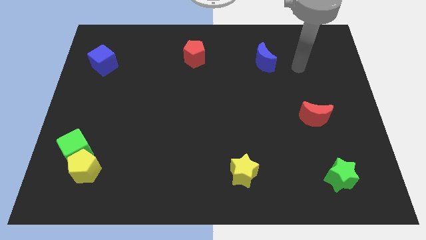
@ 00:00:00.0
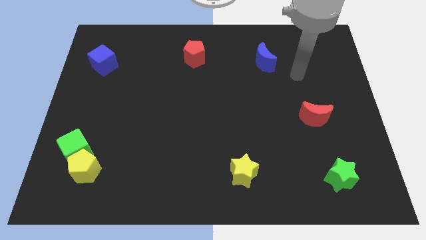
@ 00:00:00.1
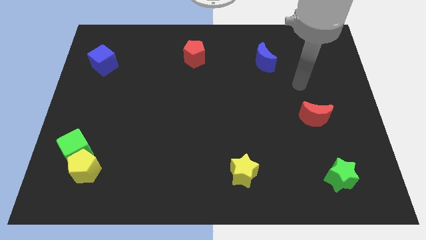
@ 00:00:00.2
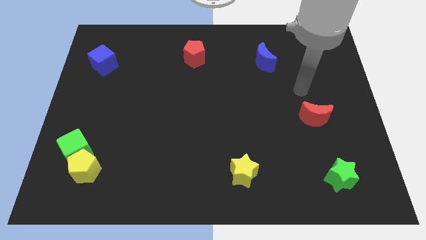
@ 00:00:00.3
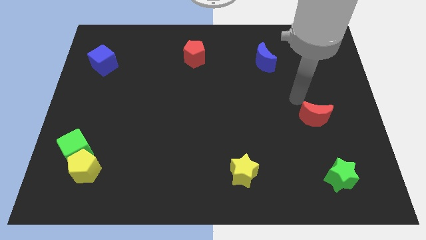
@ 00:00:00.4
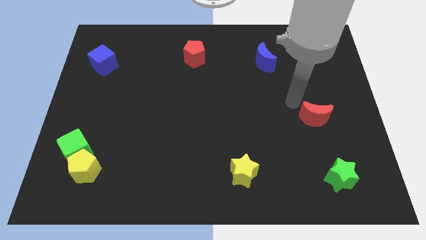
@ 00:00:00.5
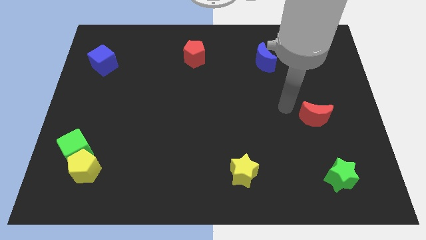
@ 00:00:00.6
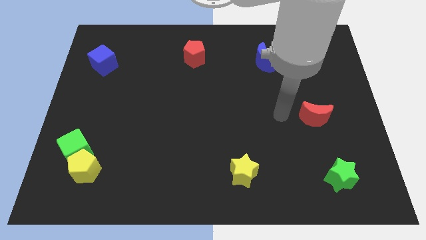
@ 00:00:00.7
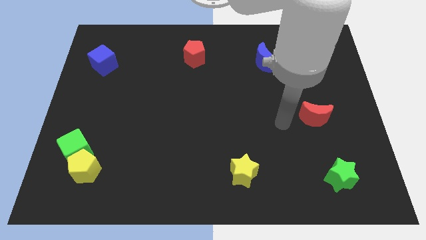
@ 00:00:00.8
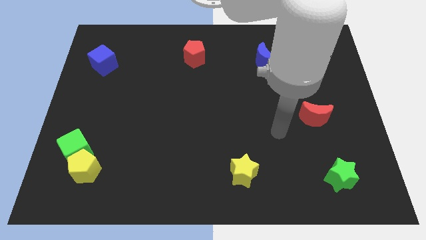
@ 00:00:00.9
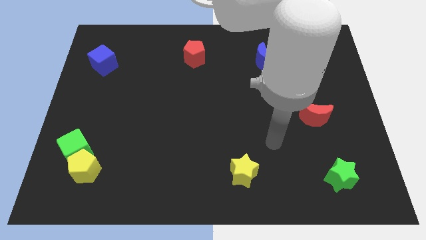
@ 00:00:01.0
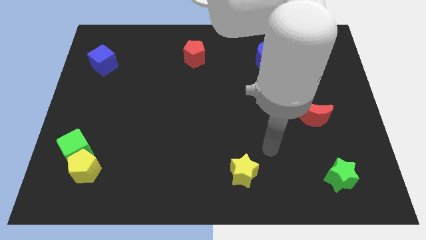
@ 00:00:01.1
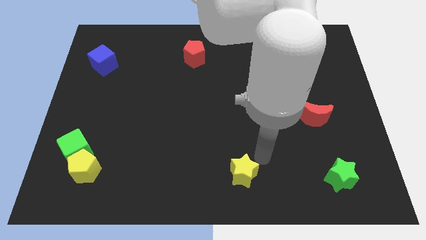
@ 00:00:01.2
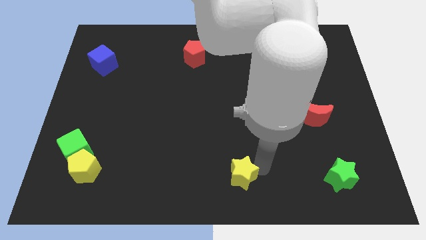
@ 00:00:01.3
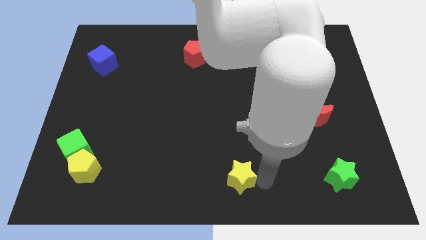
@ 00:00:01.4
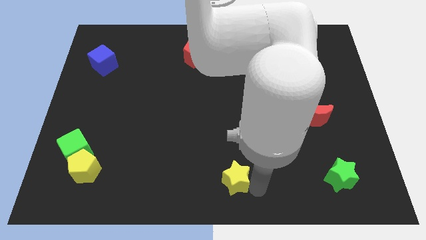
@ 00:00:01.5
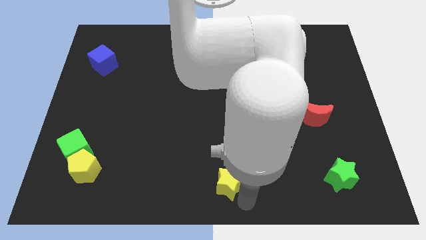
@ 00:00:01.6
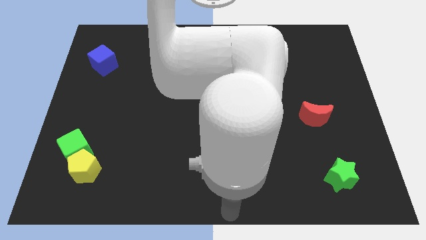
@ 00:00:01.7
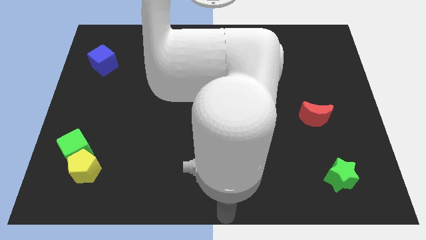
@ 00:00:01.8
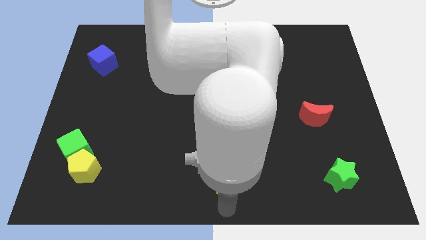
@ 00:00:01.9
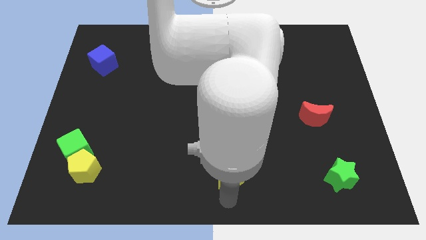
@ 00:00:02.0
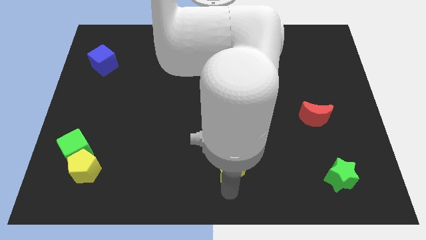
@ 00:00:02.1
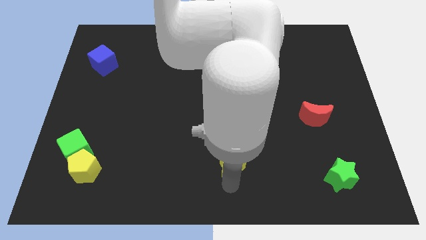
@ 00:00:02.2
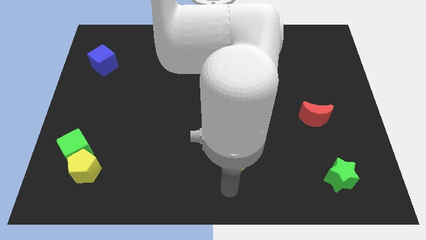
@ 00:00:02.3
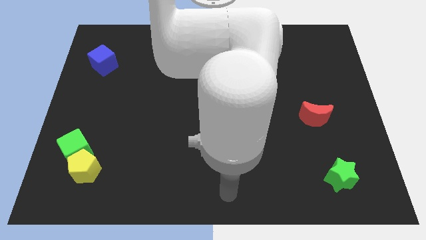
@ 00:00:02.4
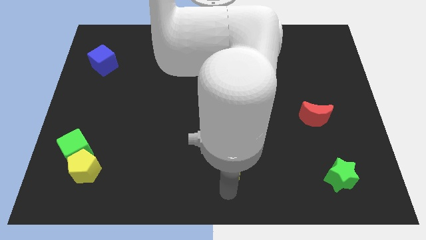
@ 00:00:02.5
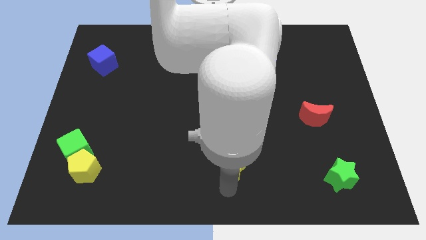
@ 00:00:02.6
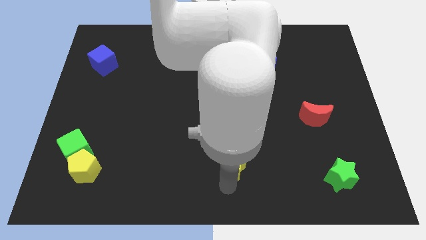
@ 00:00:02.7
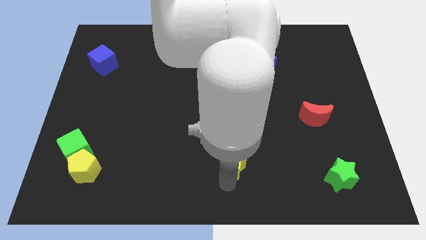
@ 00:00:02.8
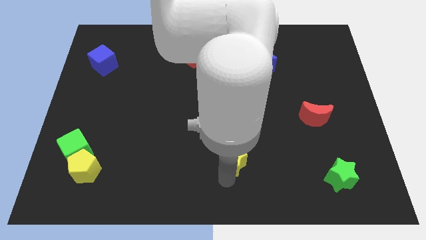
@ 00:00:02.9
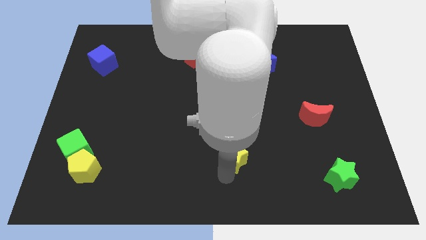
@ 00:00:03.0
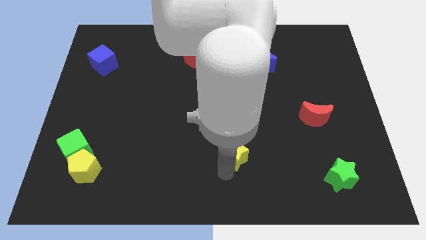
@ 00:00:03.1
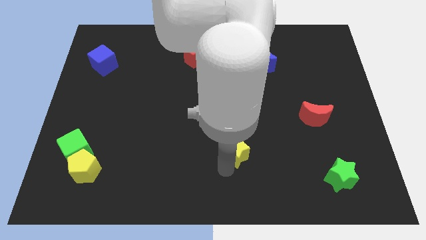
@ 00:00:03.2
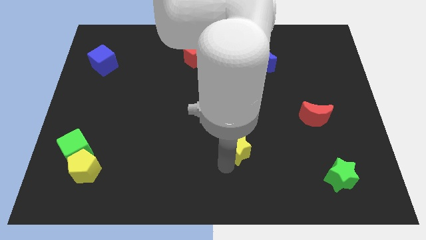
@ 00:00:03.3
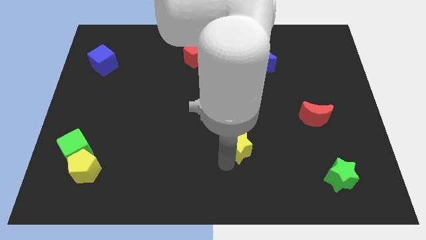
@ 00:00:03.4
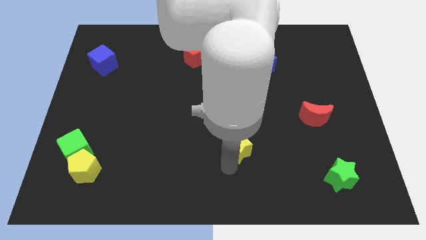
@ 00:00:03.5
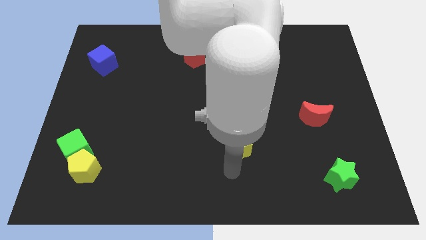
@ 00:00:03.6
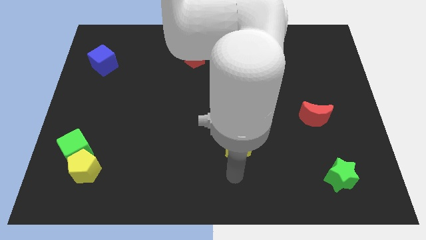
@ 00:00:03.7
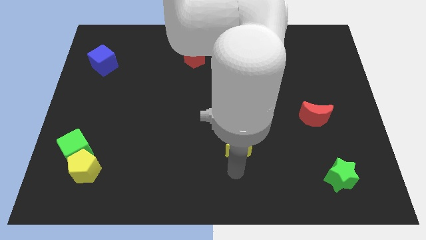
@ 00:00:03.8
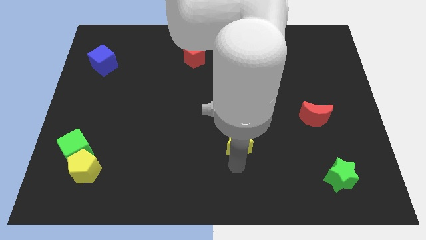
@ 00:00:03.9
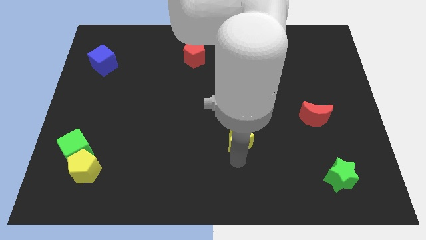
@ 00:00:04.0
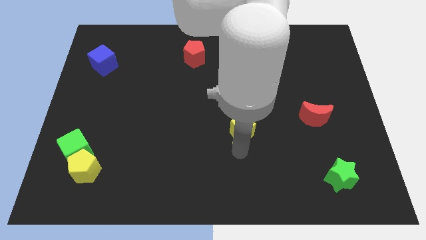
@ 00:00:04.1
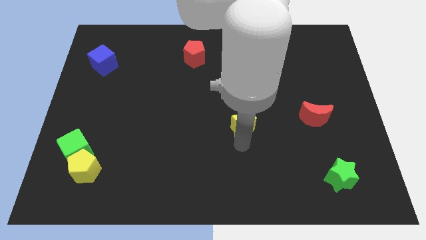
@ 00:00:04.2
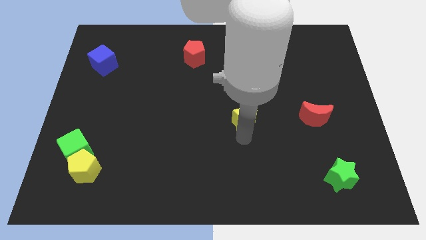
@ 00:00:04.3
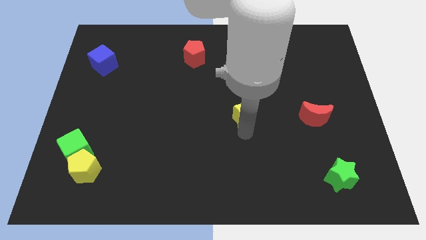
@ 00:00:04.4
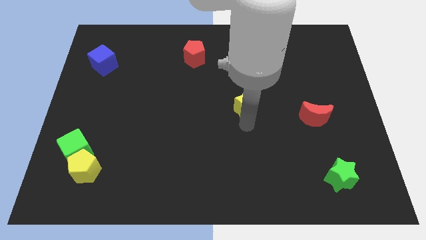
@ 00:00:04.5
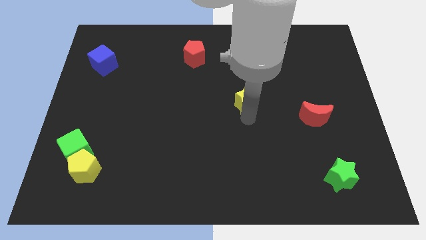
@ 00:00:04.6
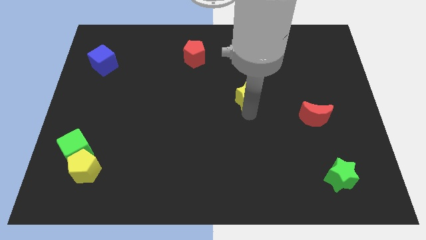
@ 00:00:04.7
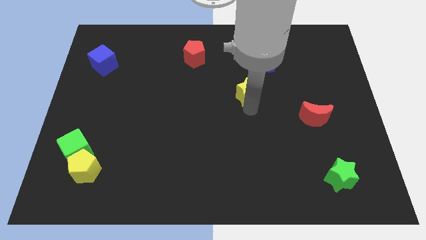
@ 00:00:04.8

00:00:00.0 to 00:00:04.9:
move the yellow star up

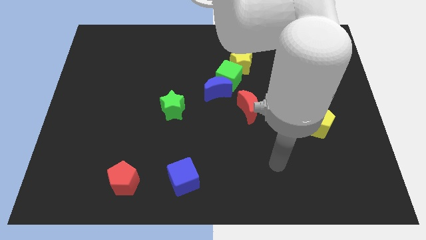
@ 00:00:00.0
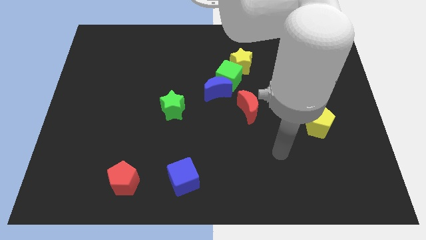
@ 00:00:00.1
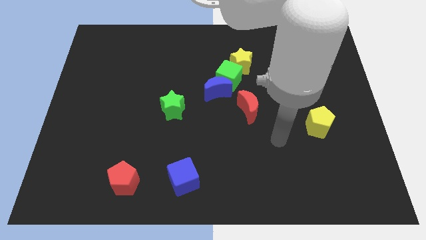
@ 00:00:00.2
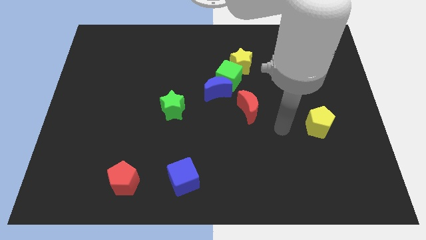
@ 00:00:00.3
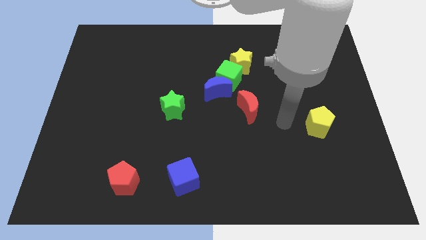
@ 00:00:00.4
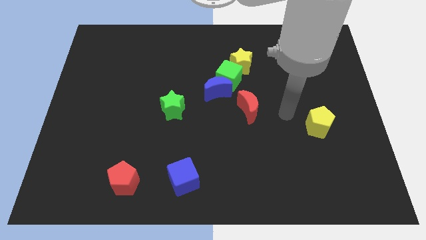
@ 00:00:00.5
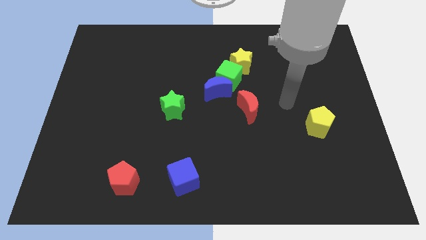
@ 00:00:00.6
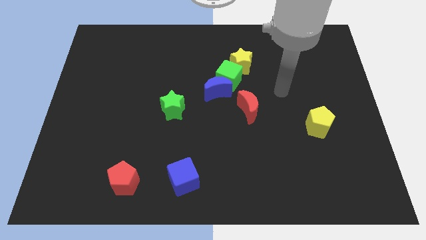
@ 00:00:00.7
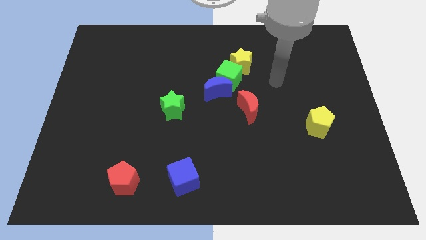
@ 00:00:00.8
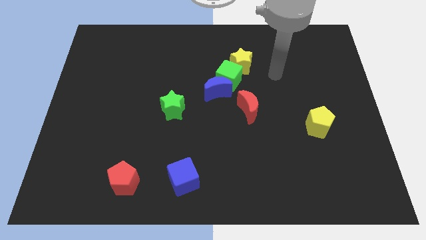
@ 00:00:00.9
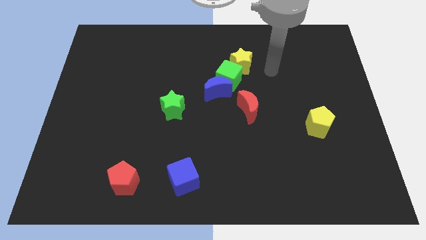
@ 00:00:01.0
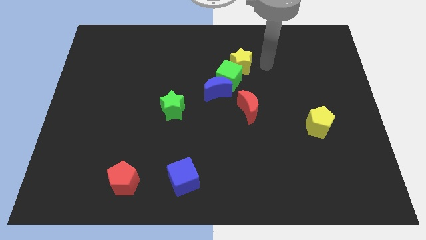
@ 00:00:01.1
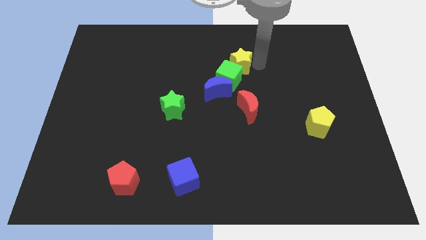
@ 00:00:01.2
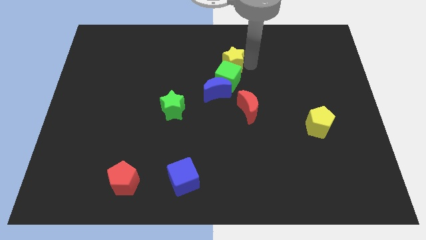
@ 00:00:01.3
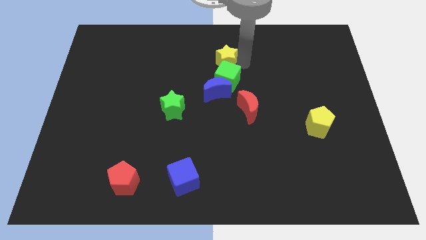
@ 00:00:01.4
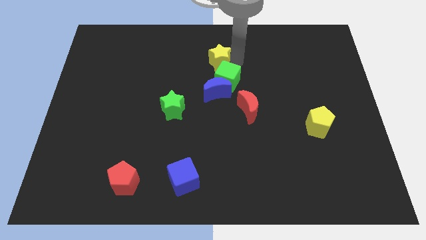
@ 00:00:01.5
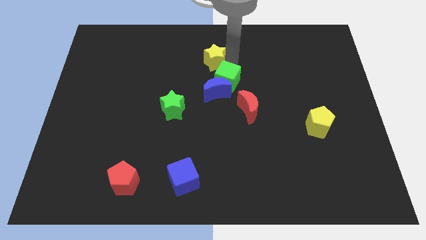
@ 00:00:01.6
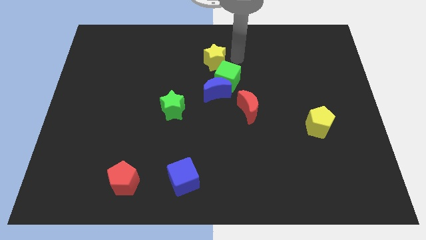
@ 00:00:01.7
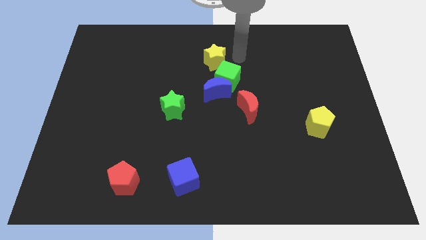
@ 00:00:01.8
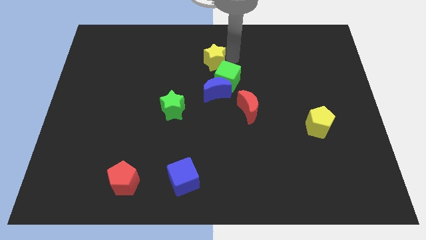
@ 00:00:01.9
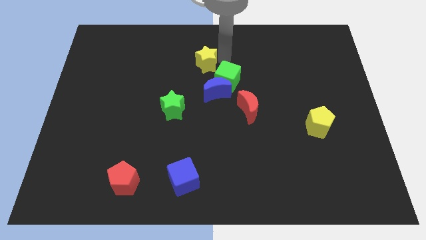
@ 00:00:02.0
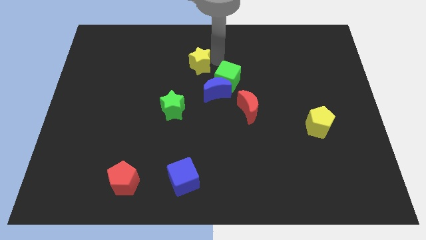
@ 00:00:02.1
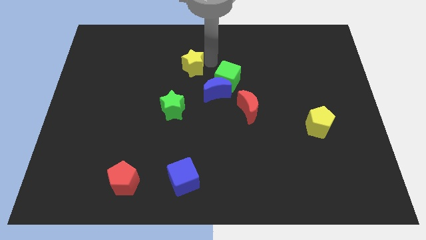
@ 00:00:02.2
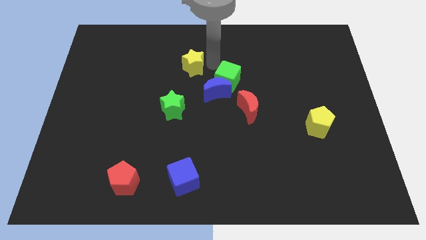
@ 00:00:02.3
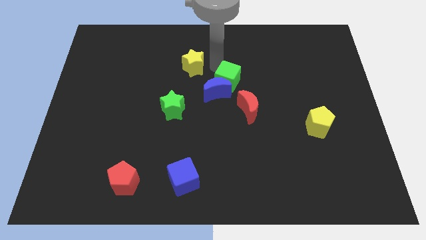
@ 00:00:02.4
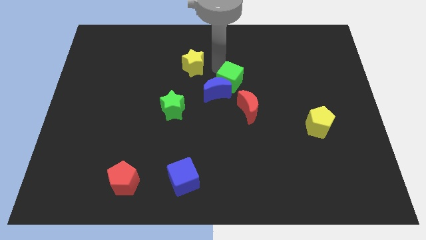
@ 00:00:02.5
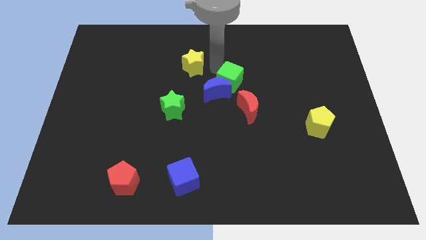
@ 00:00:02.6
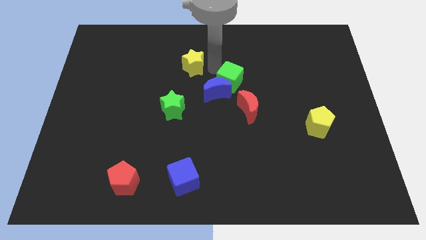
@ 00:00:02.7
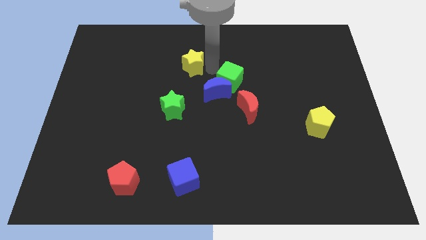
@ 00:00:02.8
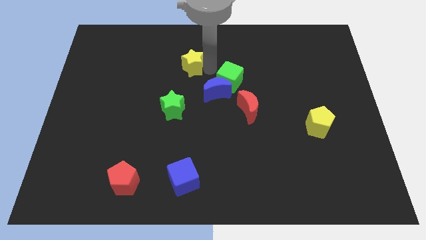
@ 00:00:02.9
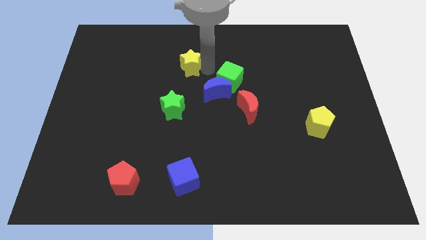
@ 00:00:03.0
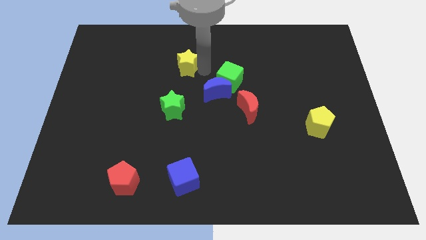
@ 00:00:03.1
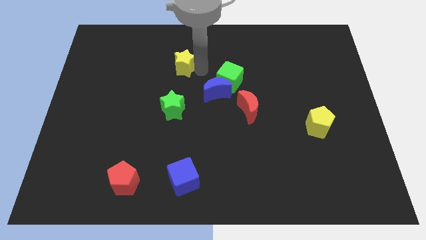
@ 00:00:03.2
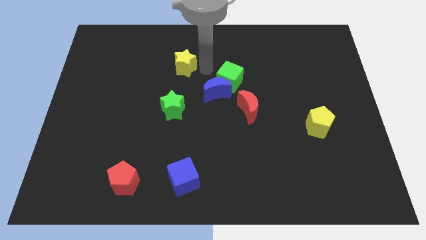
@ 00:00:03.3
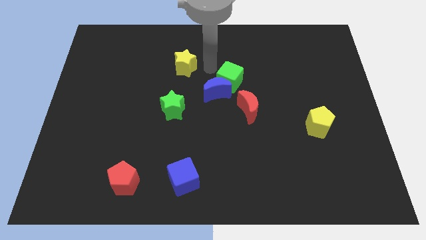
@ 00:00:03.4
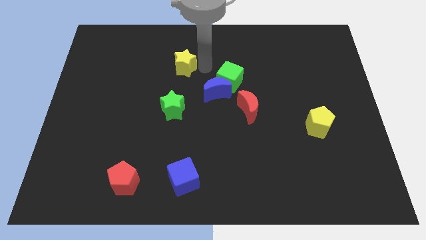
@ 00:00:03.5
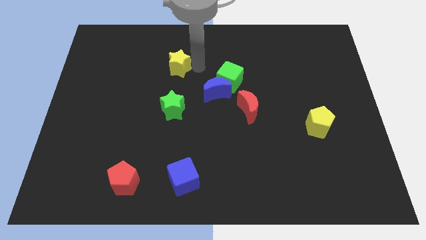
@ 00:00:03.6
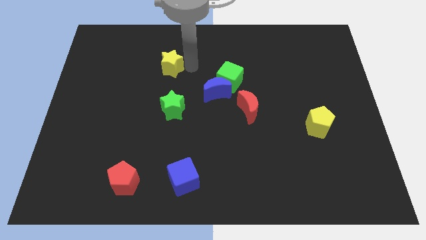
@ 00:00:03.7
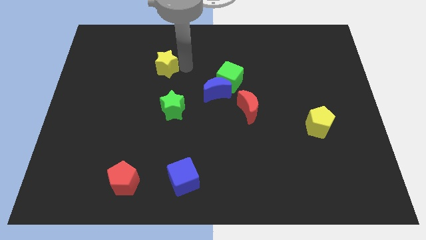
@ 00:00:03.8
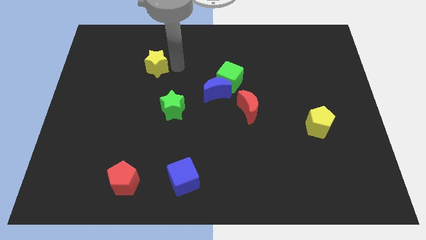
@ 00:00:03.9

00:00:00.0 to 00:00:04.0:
slide the yellow star left
